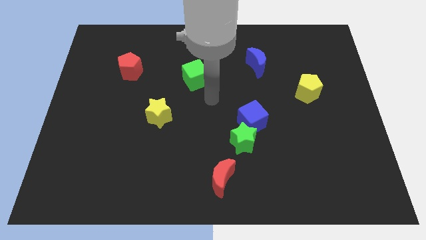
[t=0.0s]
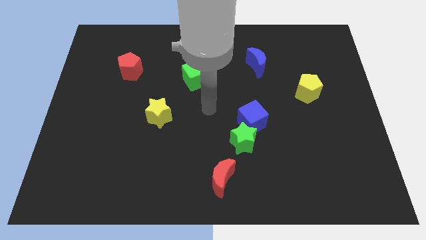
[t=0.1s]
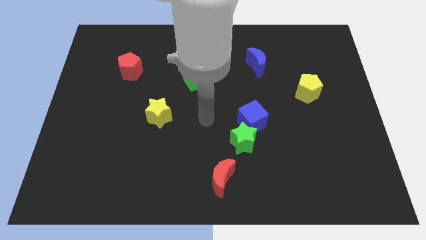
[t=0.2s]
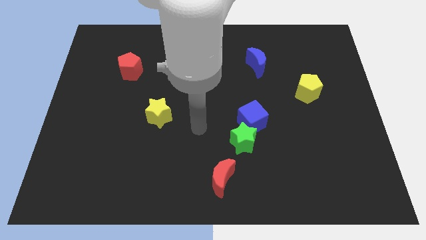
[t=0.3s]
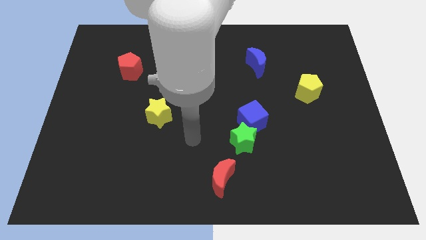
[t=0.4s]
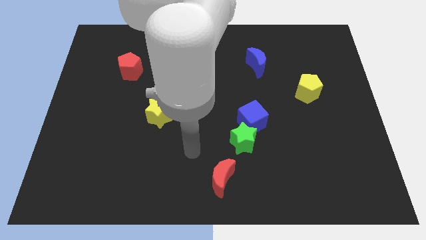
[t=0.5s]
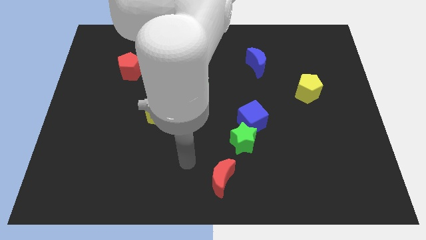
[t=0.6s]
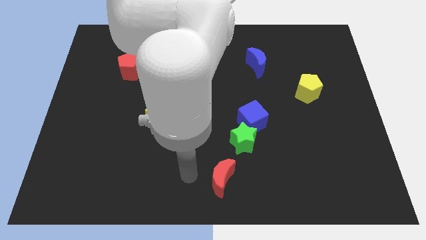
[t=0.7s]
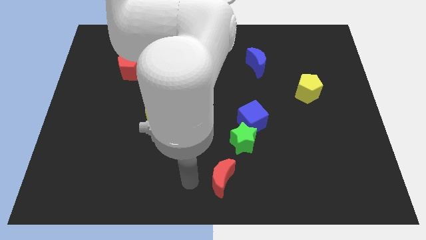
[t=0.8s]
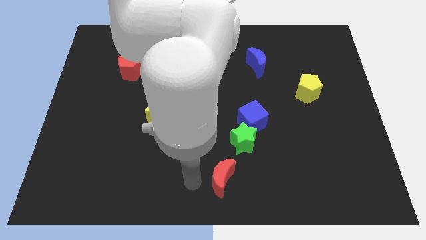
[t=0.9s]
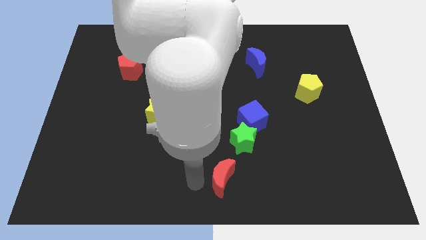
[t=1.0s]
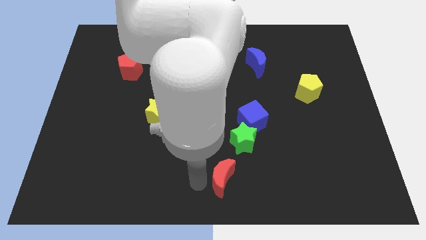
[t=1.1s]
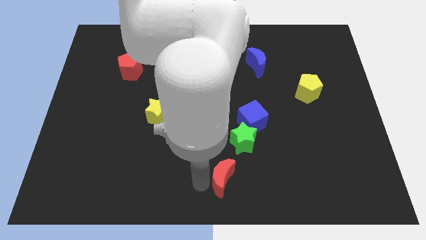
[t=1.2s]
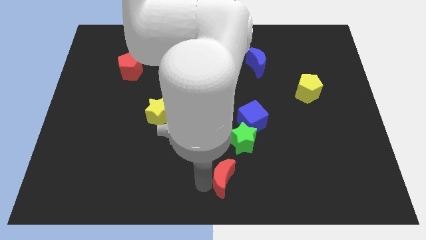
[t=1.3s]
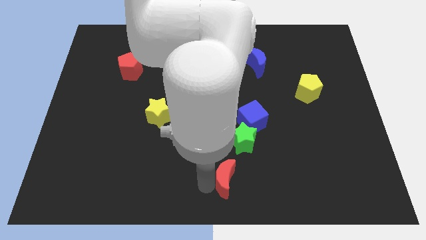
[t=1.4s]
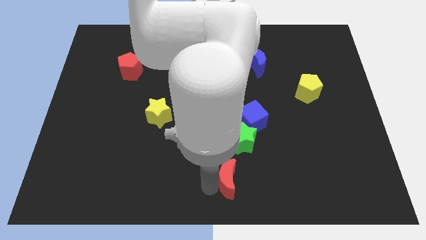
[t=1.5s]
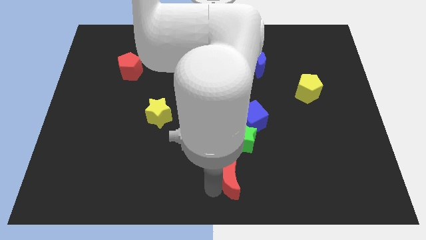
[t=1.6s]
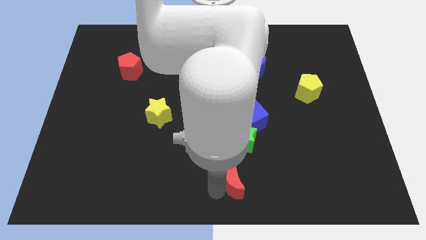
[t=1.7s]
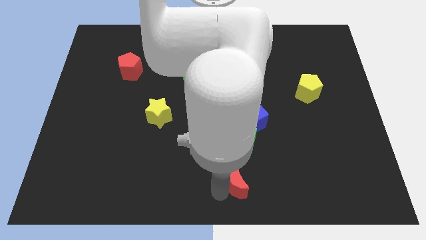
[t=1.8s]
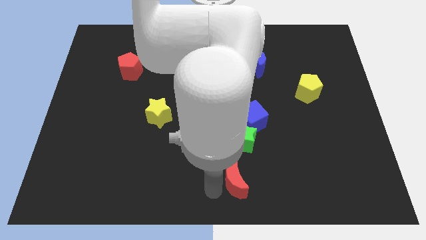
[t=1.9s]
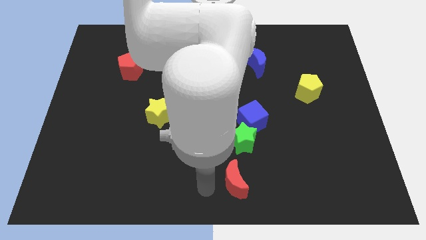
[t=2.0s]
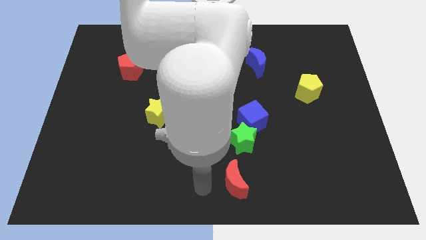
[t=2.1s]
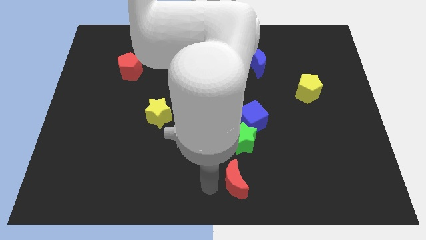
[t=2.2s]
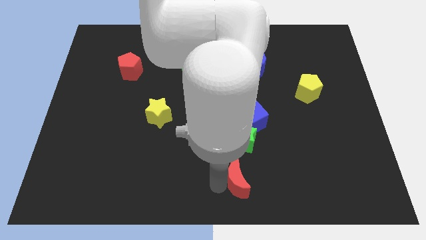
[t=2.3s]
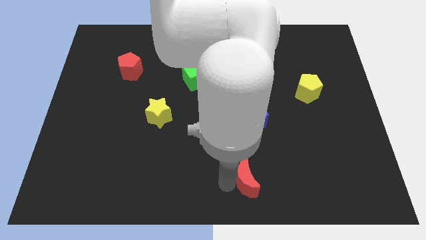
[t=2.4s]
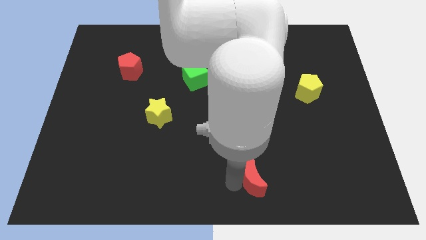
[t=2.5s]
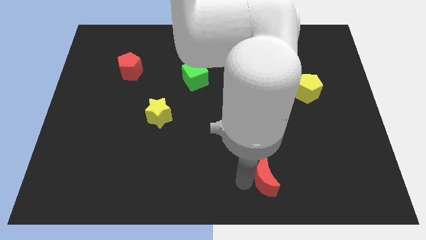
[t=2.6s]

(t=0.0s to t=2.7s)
slide the red moon a bit to the right

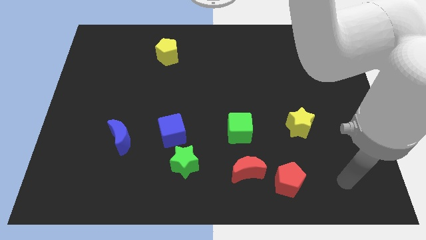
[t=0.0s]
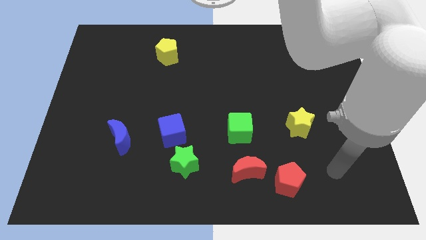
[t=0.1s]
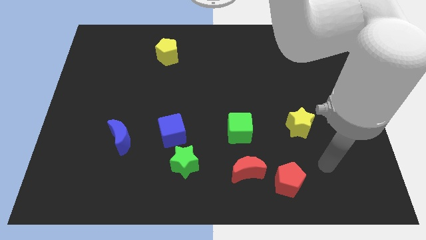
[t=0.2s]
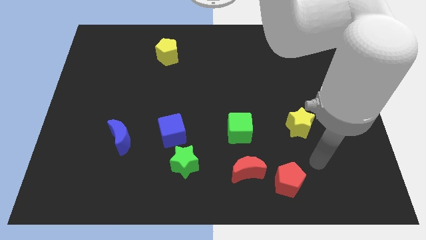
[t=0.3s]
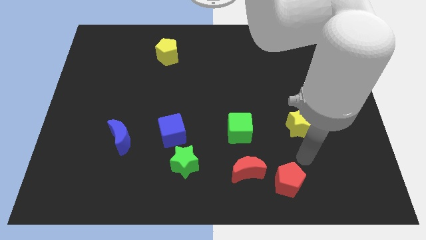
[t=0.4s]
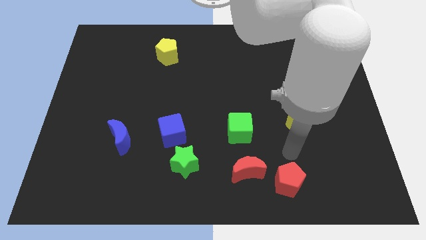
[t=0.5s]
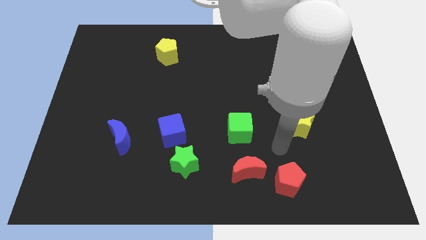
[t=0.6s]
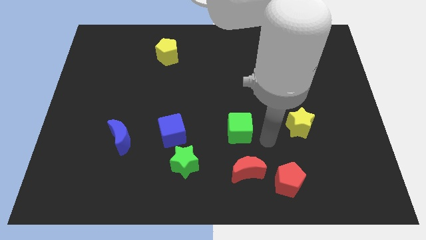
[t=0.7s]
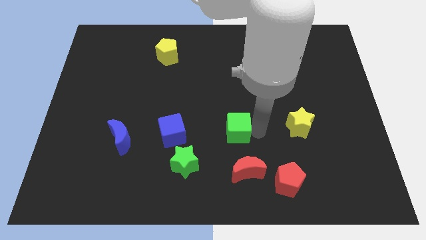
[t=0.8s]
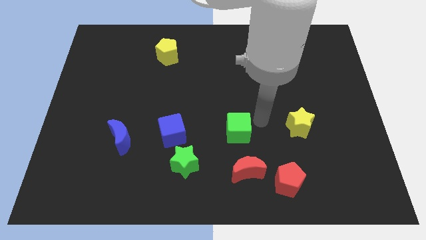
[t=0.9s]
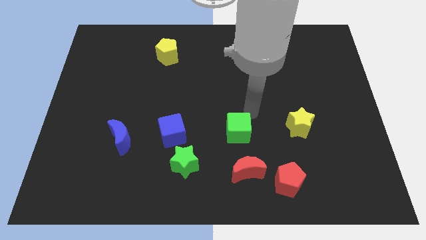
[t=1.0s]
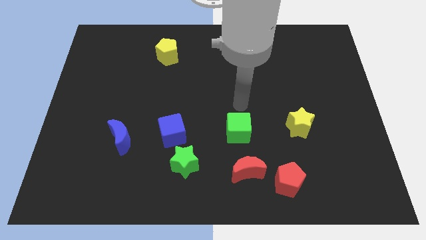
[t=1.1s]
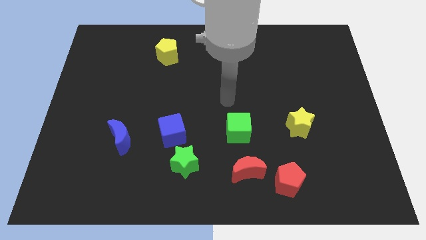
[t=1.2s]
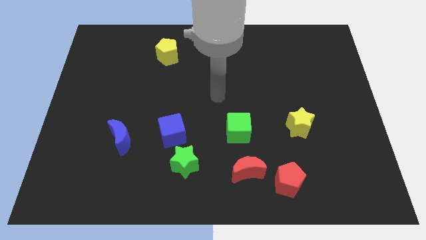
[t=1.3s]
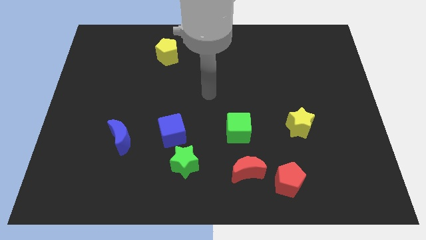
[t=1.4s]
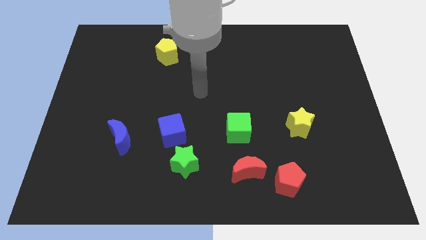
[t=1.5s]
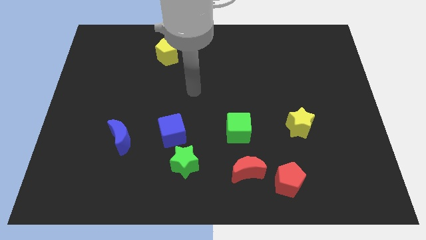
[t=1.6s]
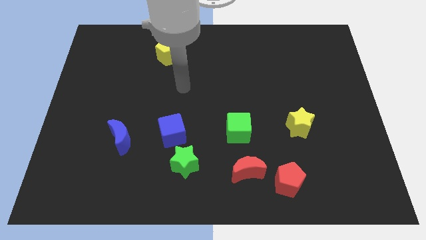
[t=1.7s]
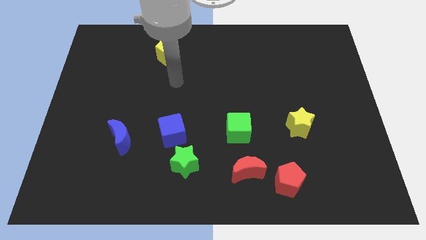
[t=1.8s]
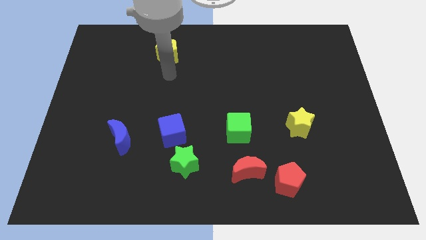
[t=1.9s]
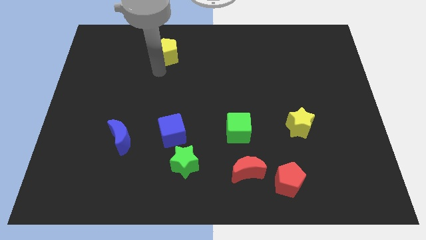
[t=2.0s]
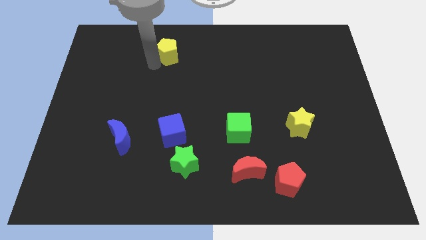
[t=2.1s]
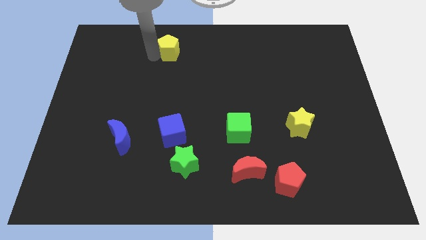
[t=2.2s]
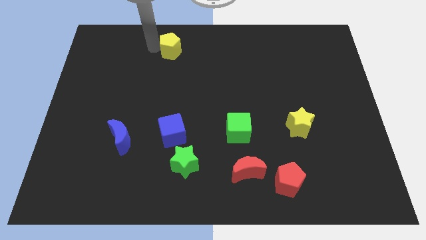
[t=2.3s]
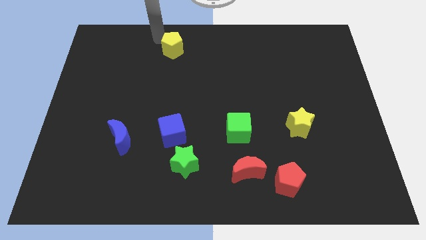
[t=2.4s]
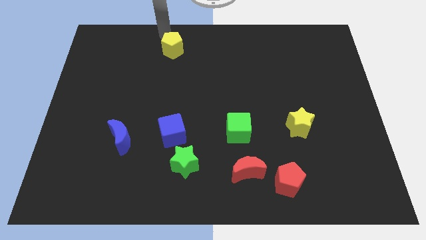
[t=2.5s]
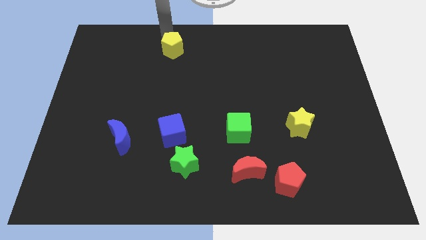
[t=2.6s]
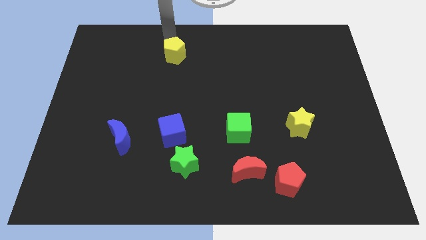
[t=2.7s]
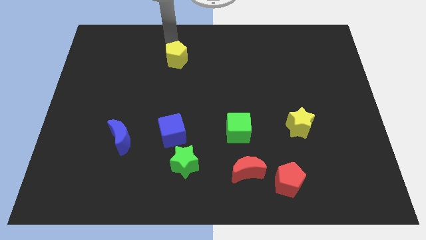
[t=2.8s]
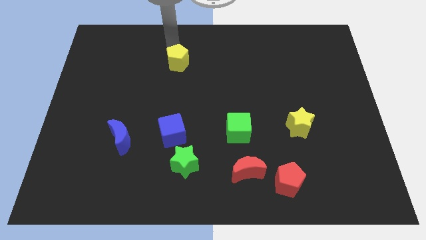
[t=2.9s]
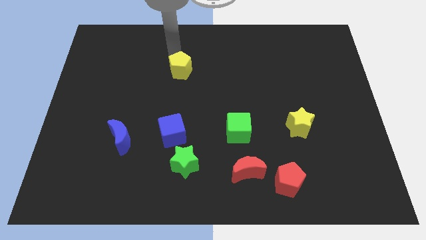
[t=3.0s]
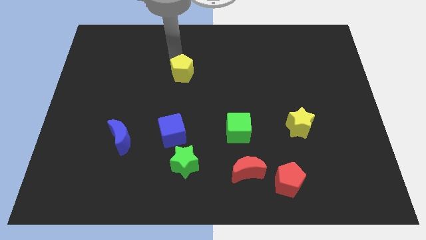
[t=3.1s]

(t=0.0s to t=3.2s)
move the yellow pentagon downwards and to the right a little bit

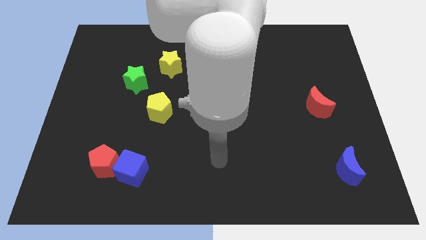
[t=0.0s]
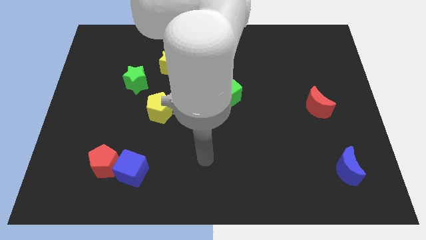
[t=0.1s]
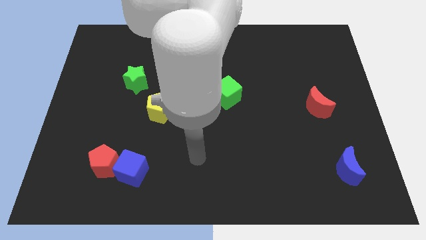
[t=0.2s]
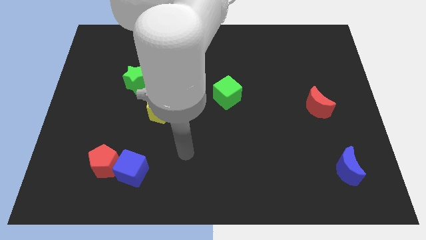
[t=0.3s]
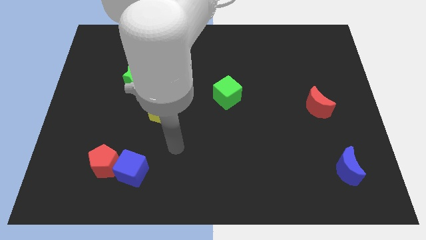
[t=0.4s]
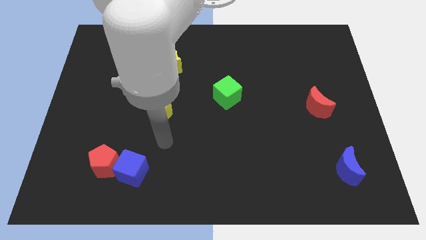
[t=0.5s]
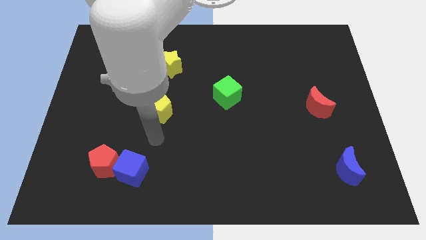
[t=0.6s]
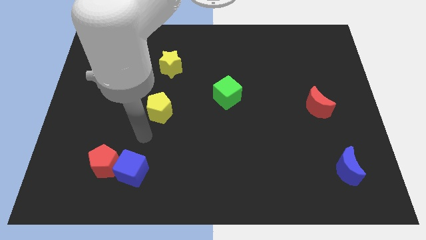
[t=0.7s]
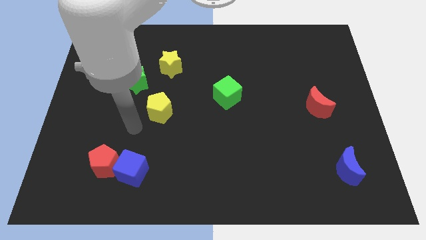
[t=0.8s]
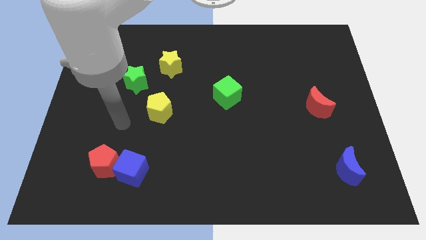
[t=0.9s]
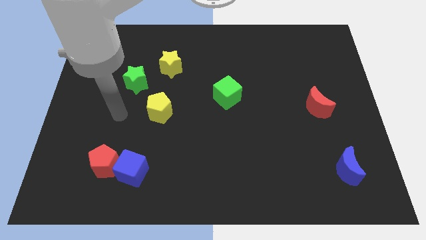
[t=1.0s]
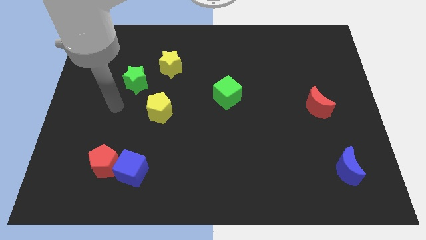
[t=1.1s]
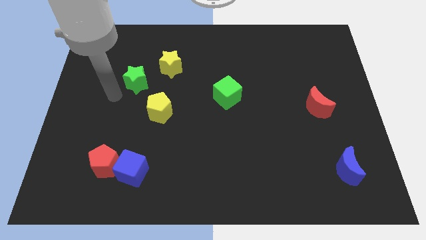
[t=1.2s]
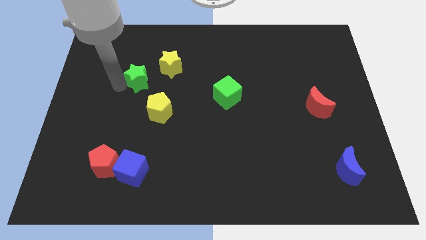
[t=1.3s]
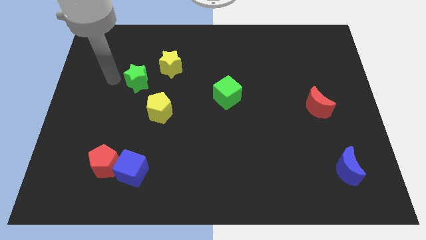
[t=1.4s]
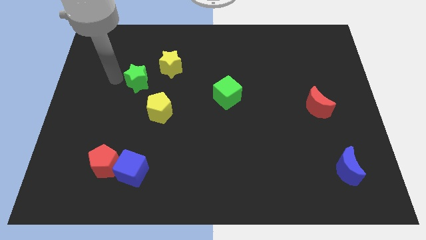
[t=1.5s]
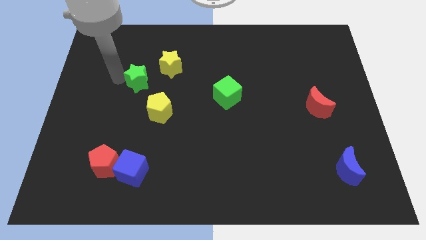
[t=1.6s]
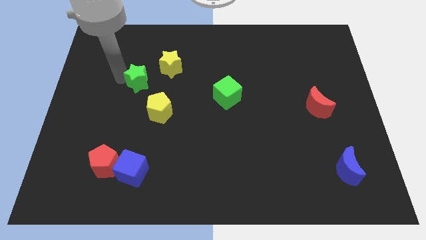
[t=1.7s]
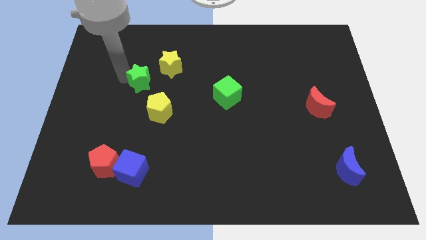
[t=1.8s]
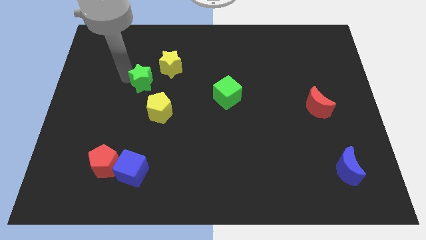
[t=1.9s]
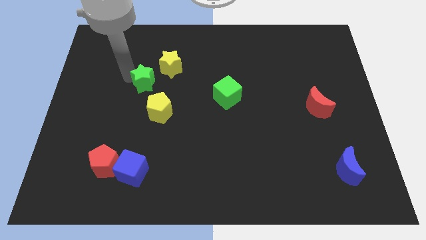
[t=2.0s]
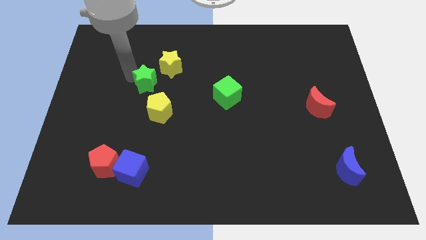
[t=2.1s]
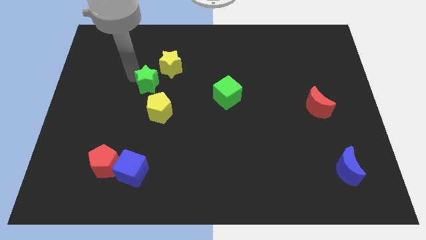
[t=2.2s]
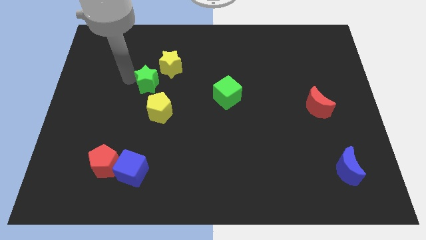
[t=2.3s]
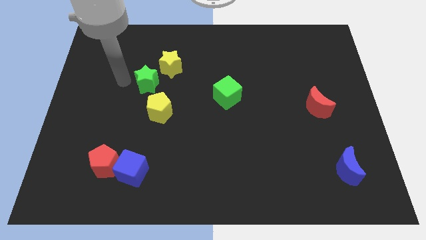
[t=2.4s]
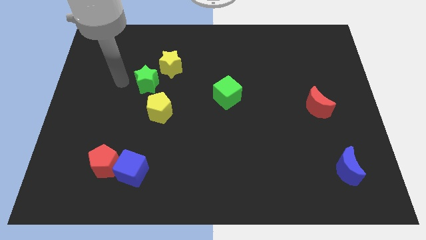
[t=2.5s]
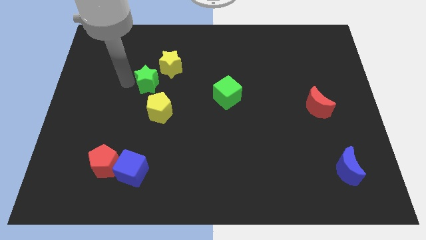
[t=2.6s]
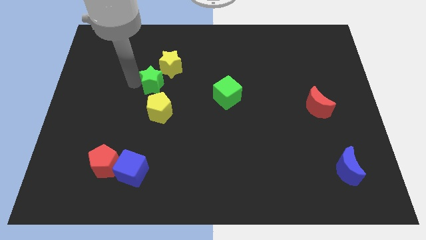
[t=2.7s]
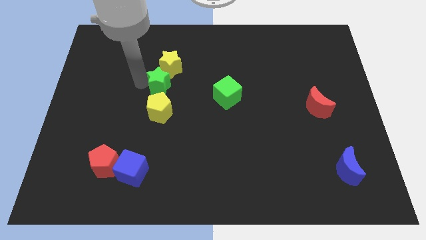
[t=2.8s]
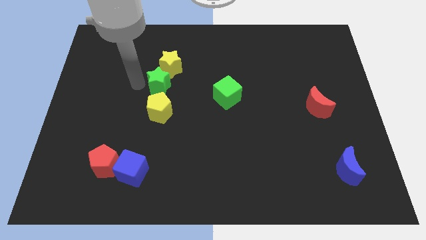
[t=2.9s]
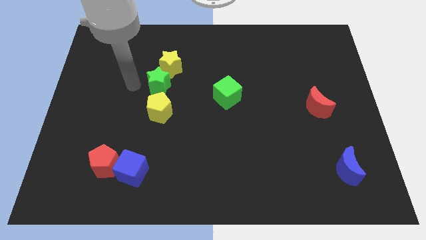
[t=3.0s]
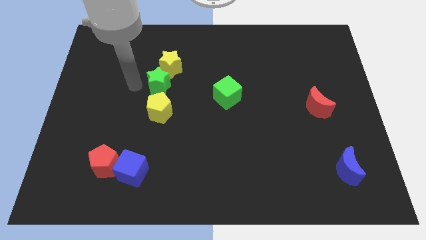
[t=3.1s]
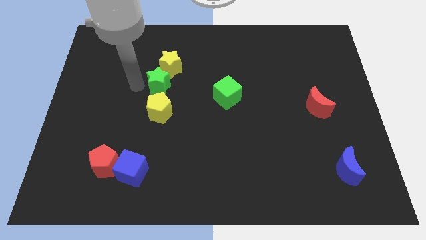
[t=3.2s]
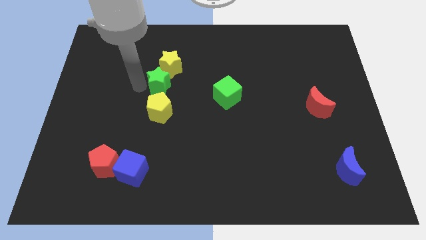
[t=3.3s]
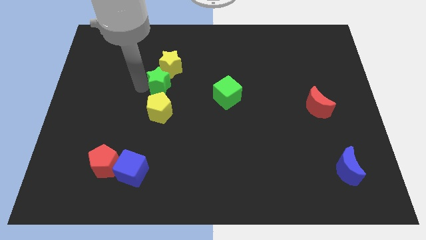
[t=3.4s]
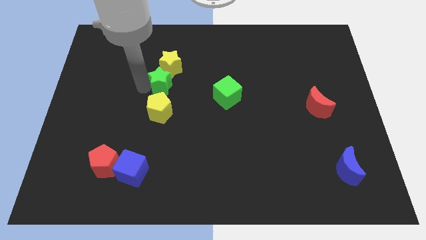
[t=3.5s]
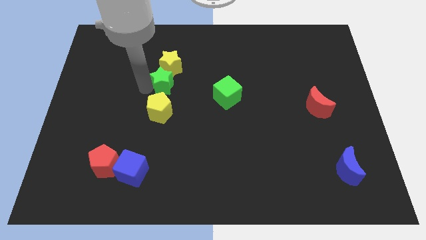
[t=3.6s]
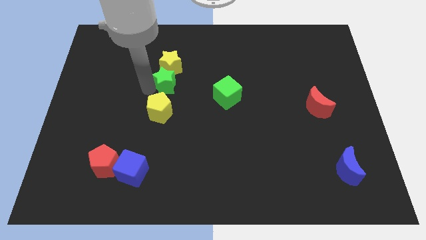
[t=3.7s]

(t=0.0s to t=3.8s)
slightly push the green star right
